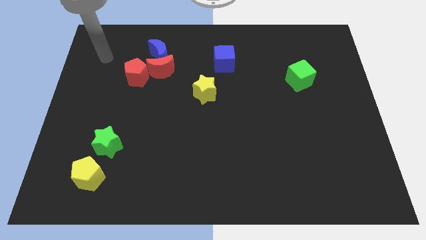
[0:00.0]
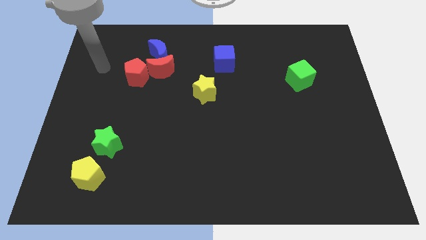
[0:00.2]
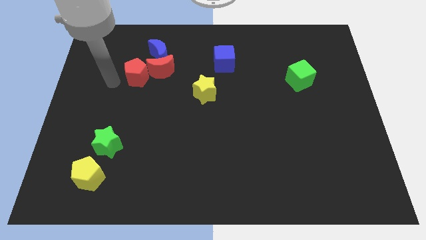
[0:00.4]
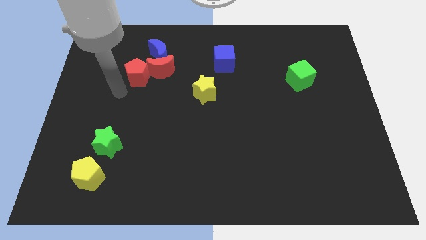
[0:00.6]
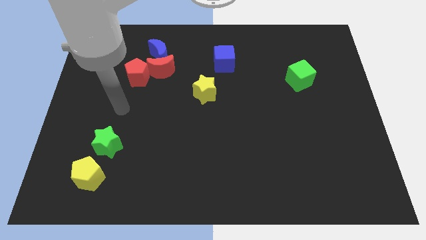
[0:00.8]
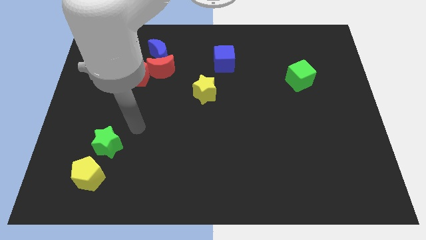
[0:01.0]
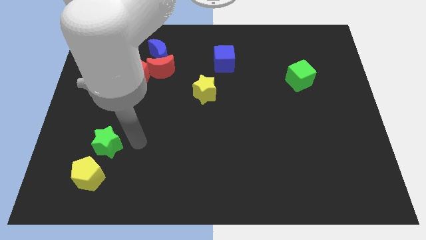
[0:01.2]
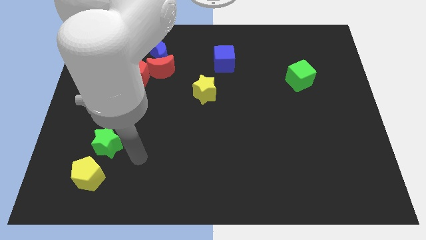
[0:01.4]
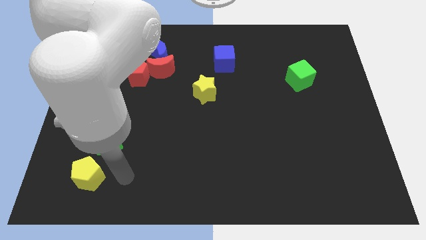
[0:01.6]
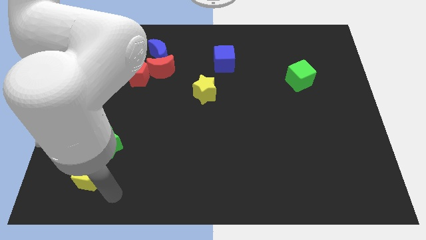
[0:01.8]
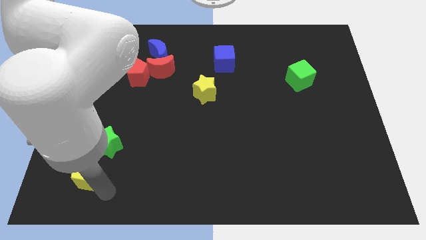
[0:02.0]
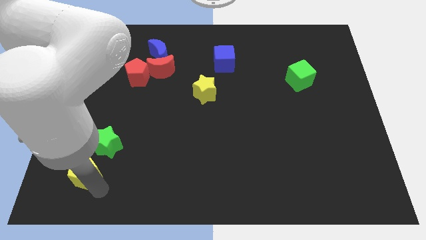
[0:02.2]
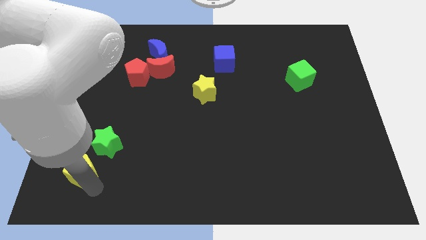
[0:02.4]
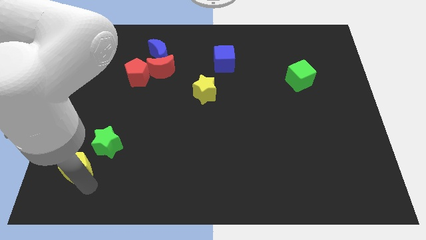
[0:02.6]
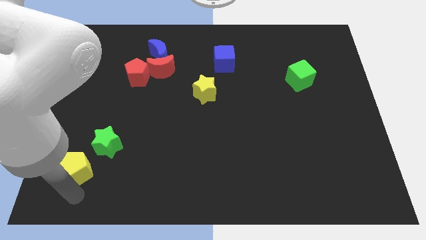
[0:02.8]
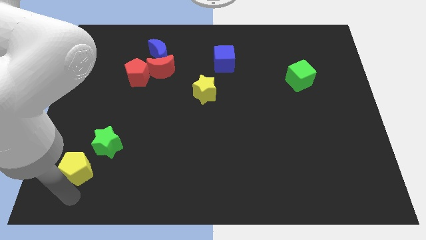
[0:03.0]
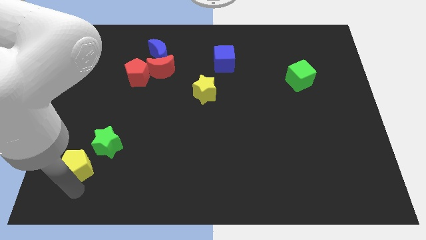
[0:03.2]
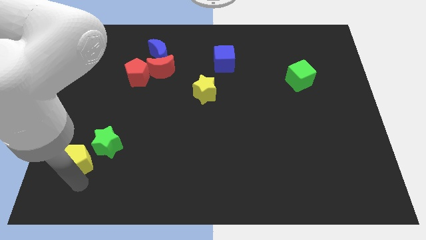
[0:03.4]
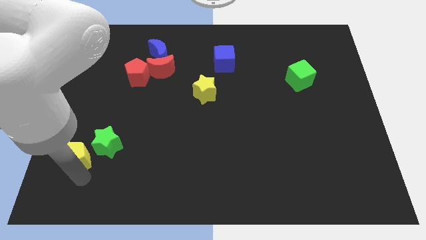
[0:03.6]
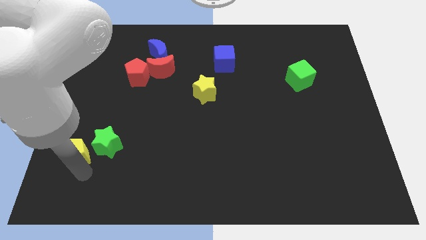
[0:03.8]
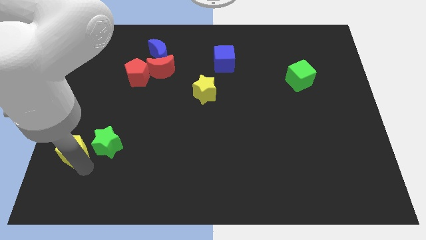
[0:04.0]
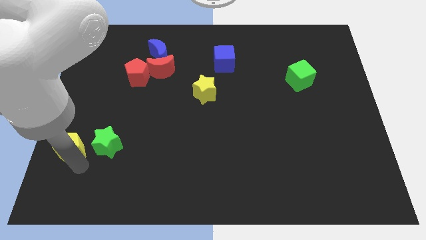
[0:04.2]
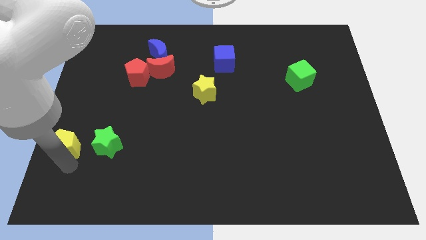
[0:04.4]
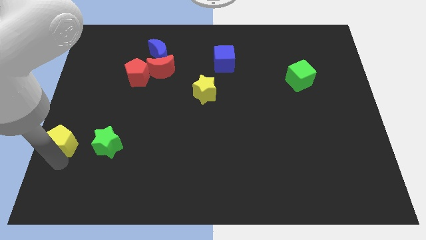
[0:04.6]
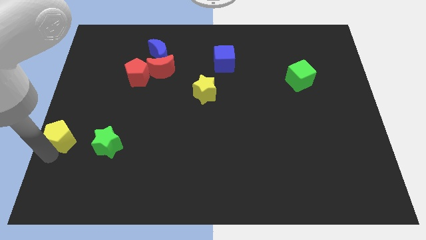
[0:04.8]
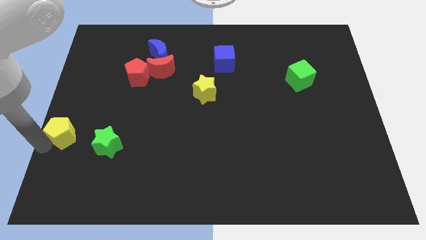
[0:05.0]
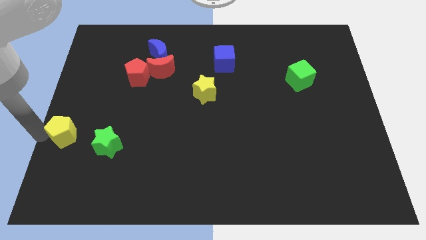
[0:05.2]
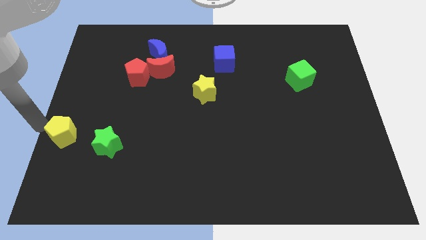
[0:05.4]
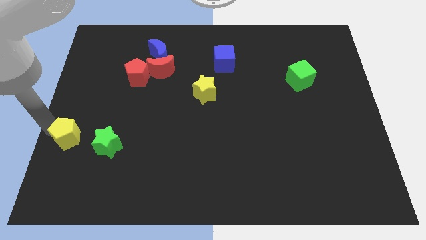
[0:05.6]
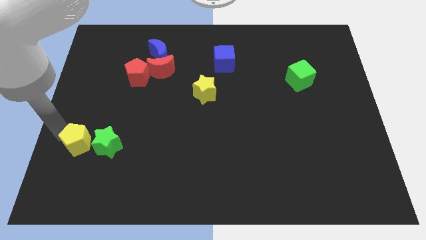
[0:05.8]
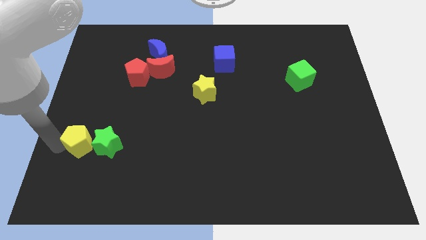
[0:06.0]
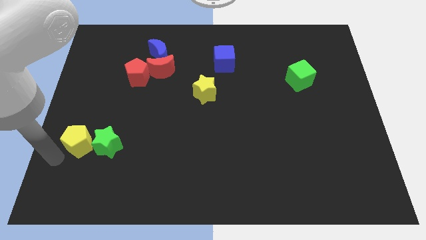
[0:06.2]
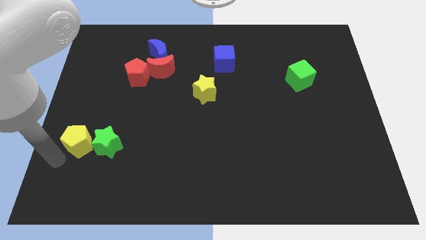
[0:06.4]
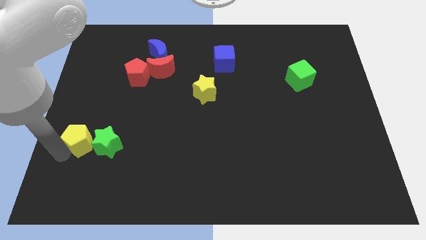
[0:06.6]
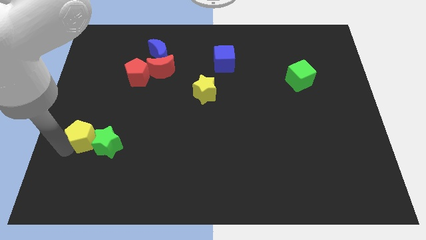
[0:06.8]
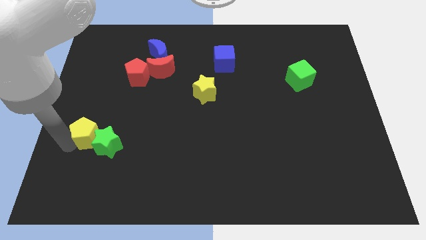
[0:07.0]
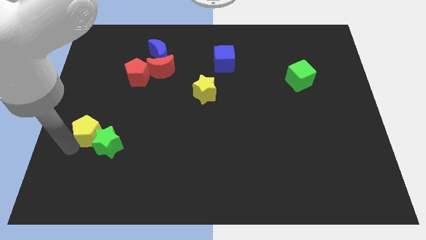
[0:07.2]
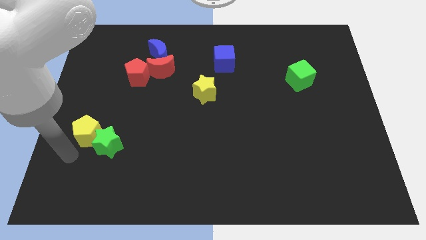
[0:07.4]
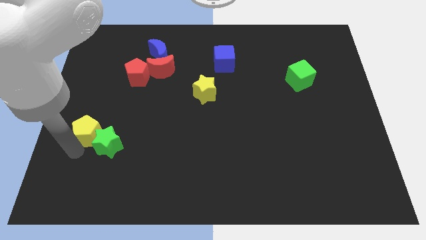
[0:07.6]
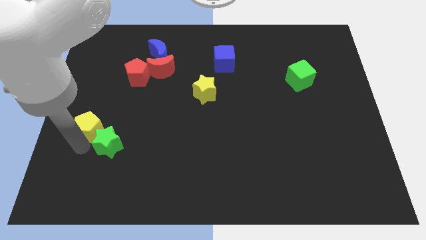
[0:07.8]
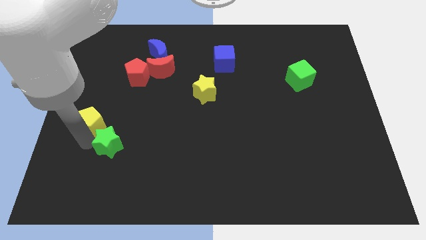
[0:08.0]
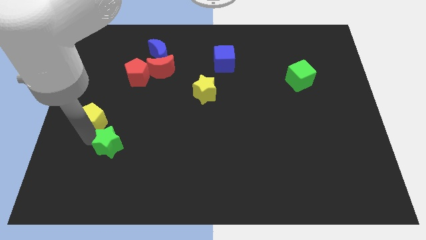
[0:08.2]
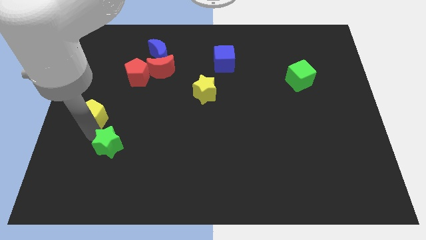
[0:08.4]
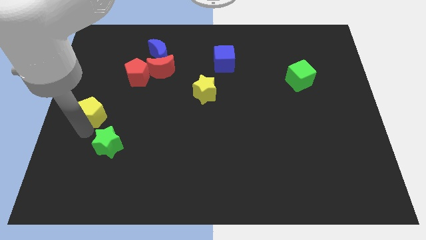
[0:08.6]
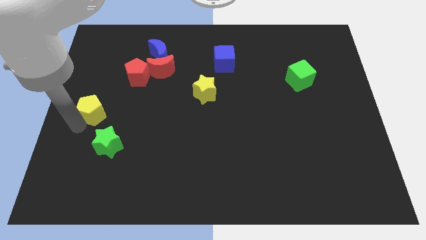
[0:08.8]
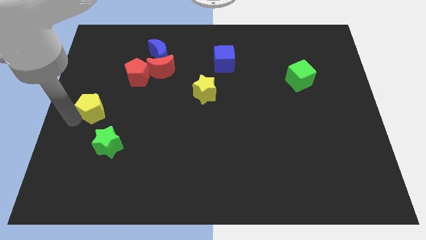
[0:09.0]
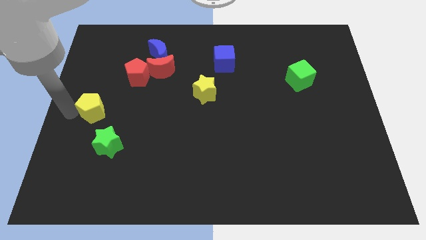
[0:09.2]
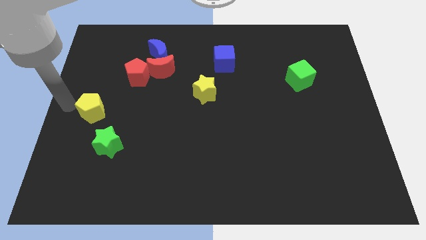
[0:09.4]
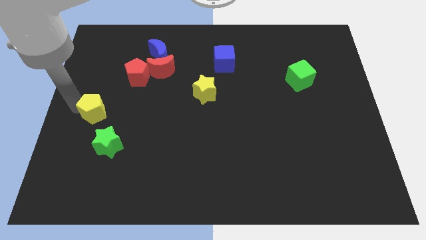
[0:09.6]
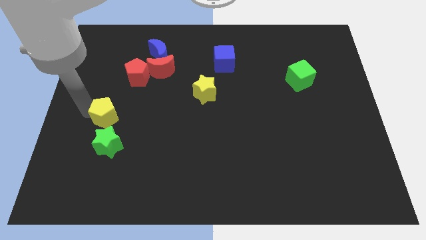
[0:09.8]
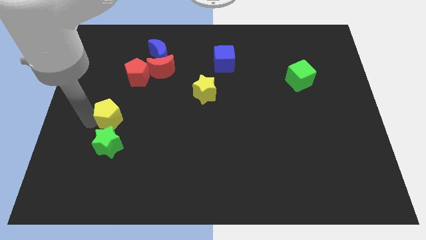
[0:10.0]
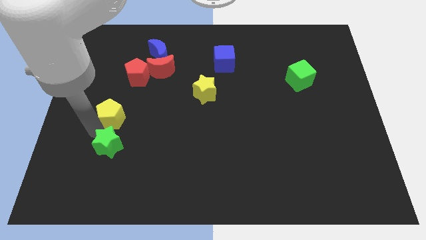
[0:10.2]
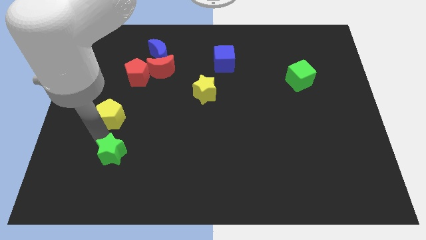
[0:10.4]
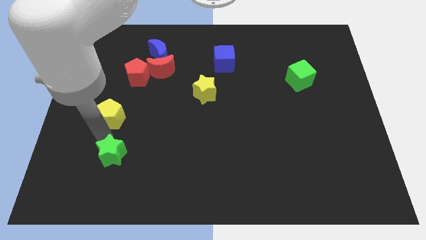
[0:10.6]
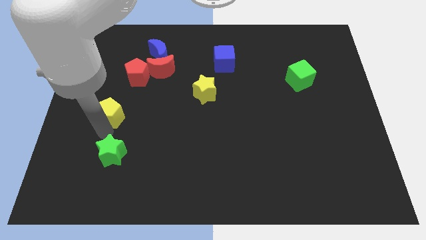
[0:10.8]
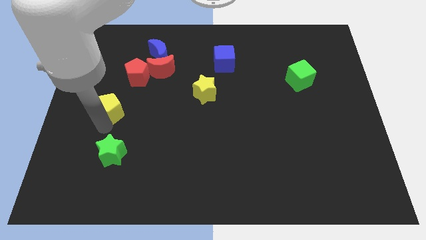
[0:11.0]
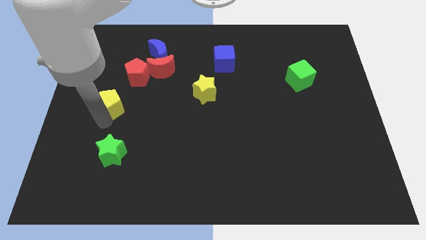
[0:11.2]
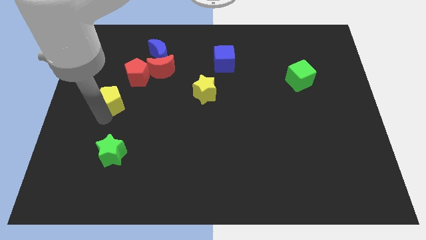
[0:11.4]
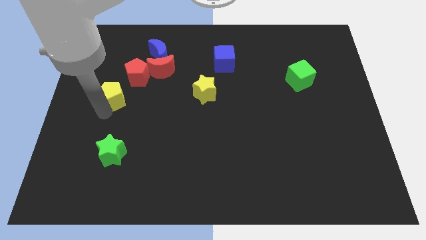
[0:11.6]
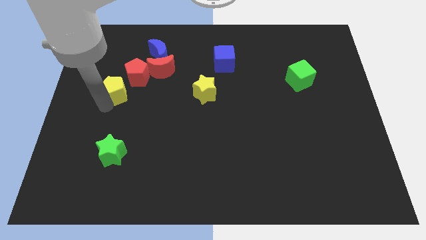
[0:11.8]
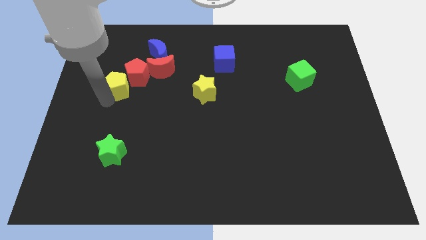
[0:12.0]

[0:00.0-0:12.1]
move the yellow pentagon to the red pentagon
